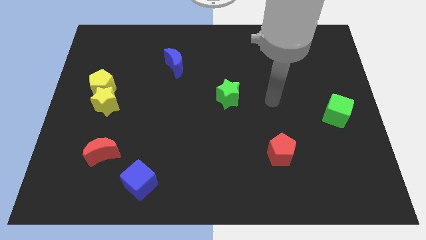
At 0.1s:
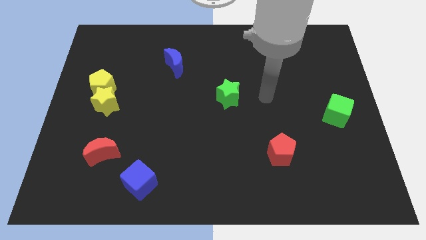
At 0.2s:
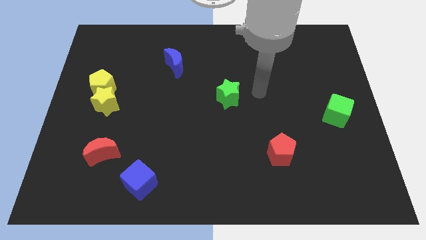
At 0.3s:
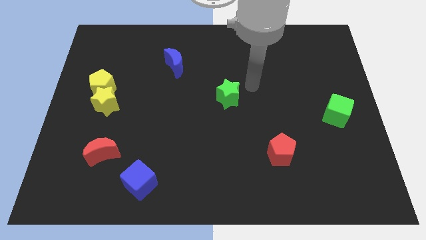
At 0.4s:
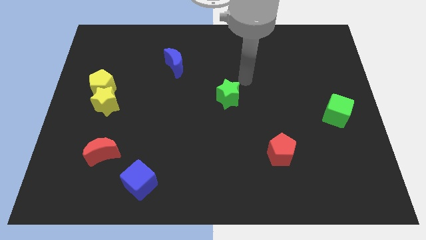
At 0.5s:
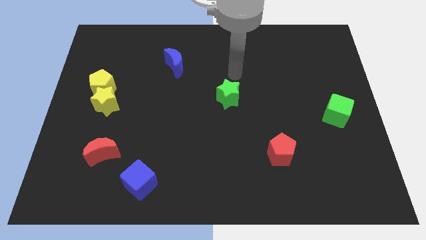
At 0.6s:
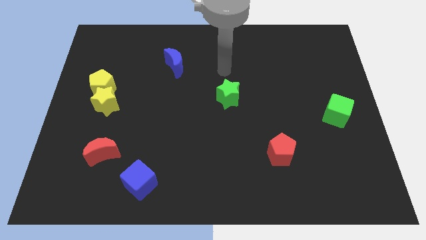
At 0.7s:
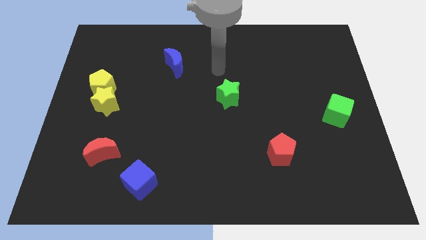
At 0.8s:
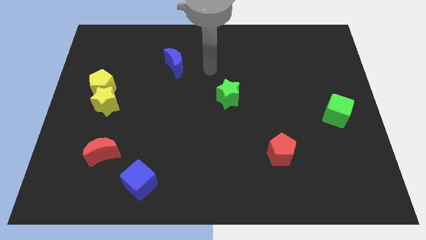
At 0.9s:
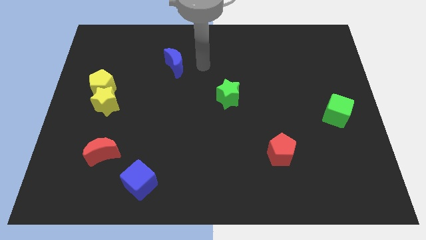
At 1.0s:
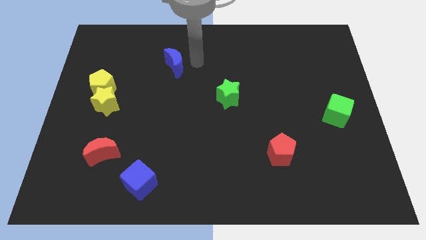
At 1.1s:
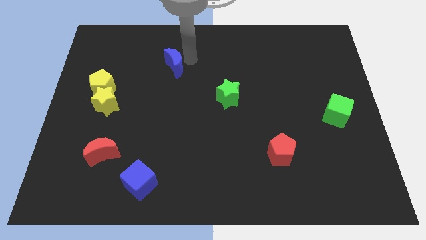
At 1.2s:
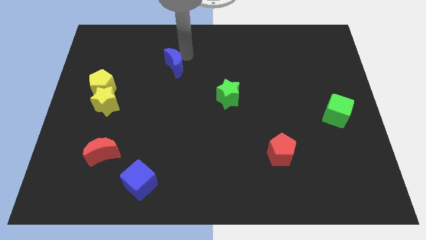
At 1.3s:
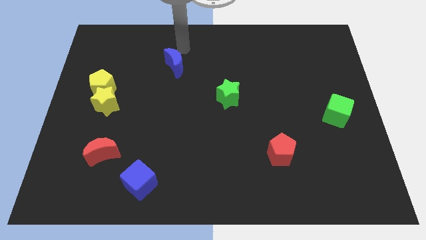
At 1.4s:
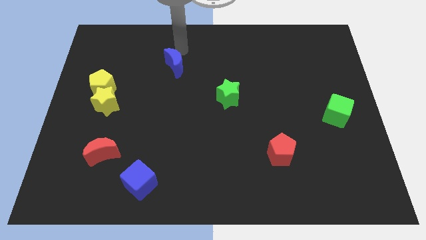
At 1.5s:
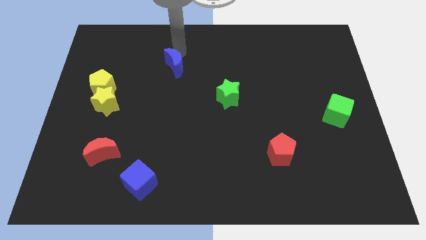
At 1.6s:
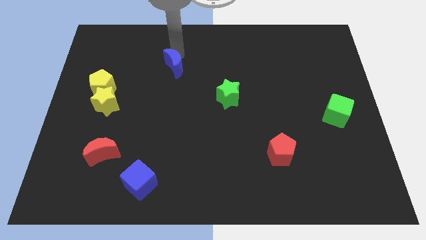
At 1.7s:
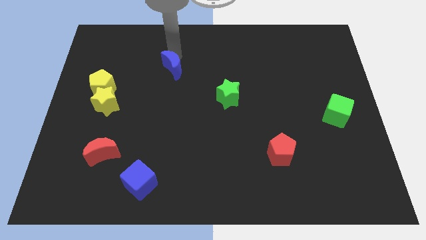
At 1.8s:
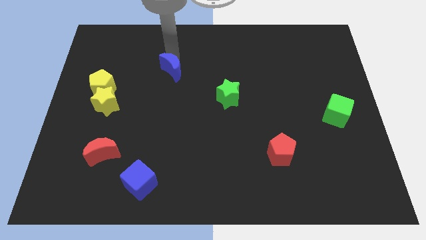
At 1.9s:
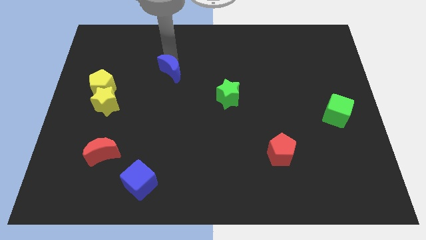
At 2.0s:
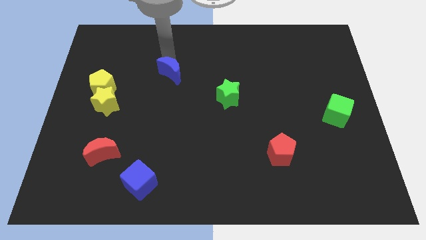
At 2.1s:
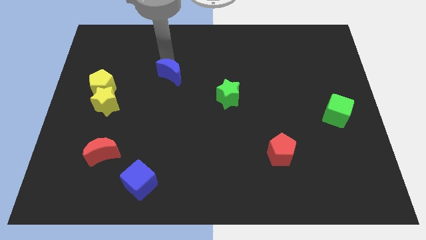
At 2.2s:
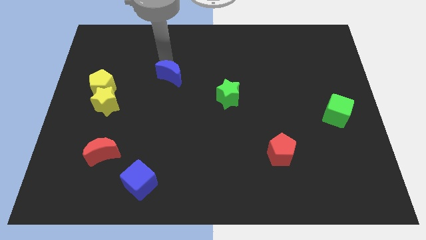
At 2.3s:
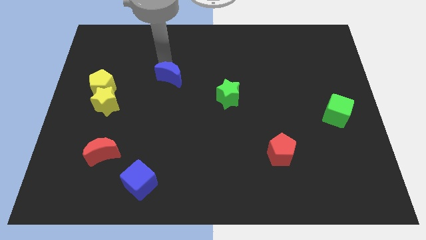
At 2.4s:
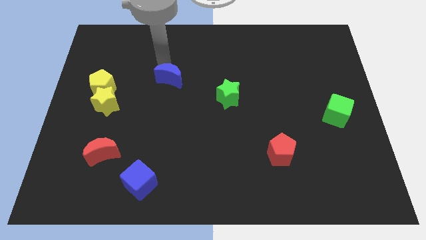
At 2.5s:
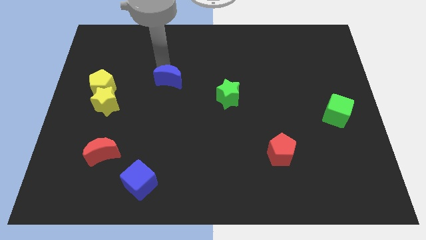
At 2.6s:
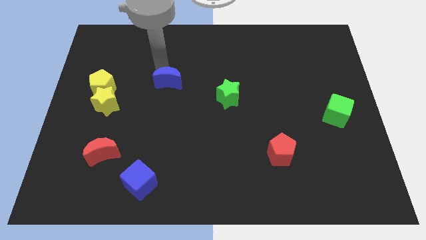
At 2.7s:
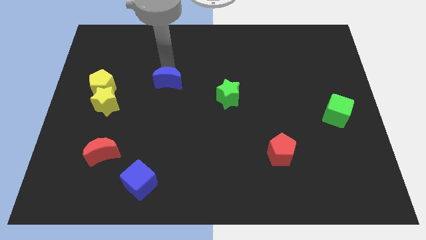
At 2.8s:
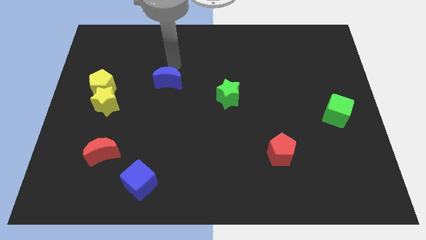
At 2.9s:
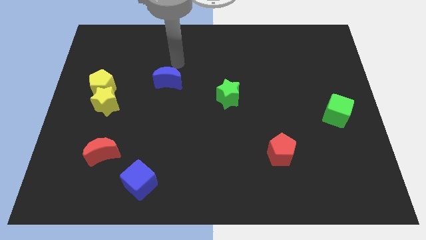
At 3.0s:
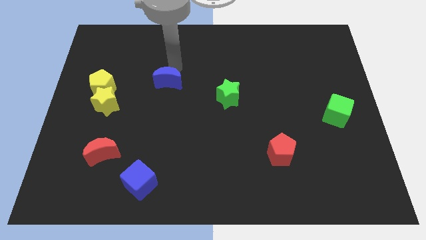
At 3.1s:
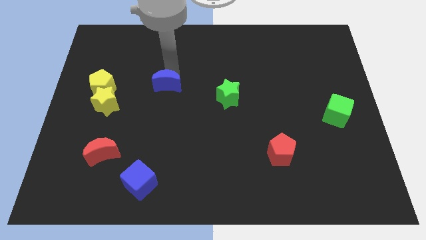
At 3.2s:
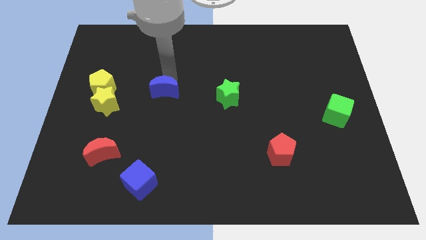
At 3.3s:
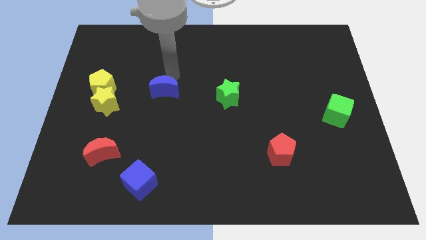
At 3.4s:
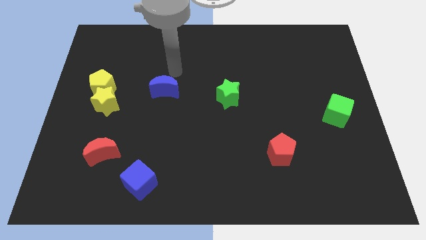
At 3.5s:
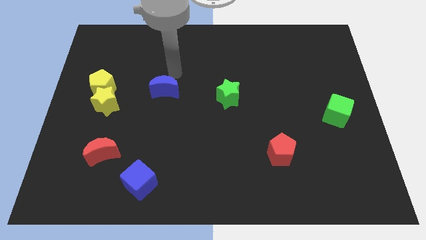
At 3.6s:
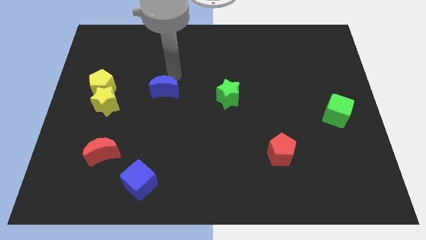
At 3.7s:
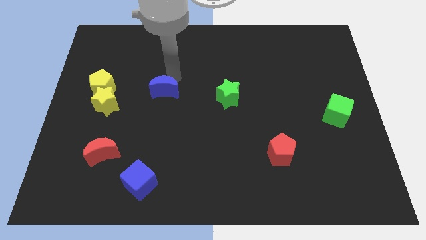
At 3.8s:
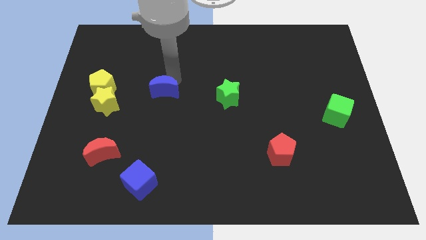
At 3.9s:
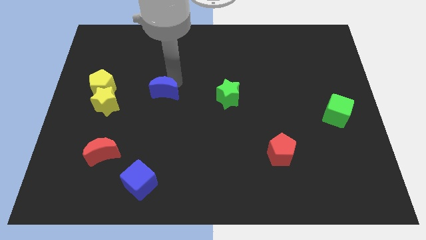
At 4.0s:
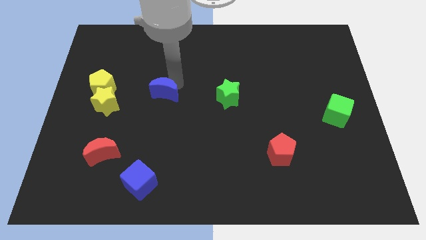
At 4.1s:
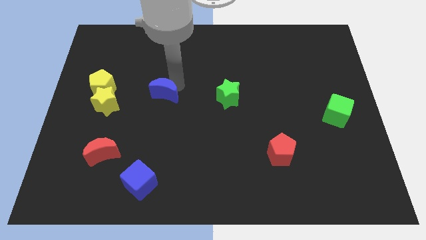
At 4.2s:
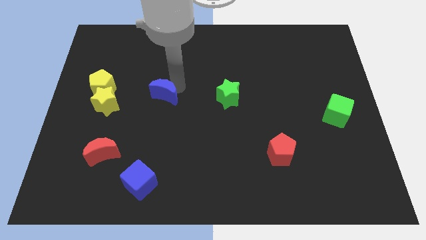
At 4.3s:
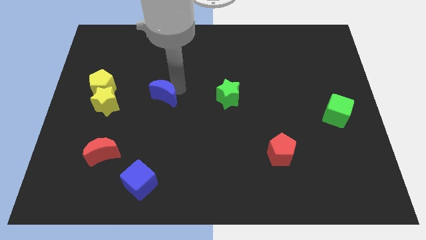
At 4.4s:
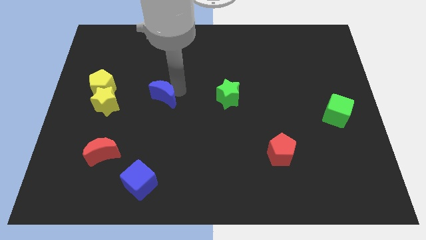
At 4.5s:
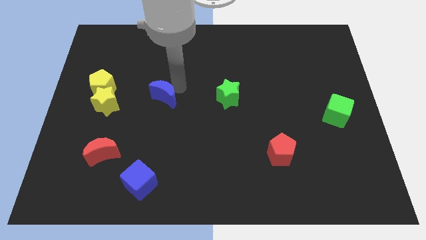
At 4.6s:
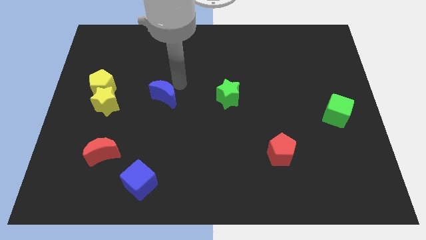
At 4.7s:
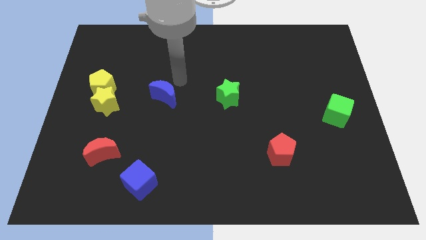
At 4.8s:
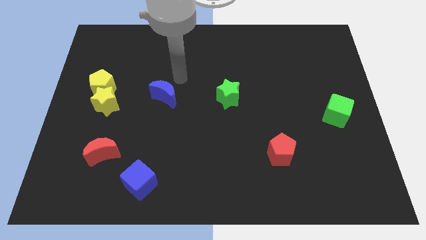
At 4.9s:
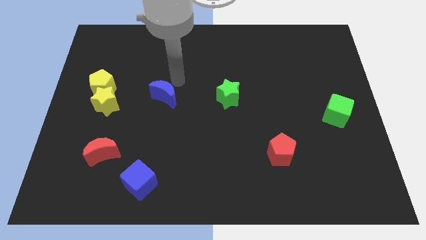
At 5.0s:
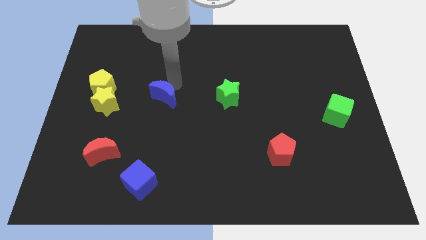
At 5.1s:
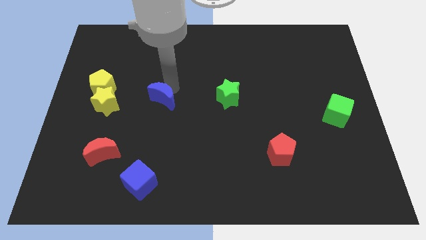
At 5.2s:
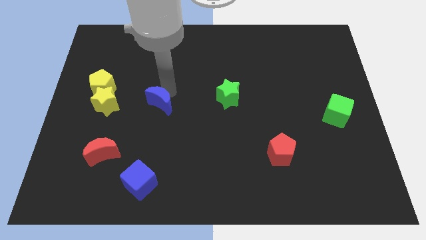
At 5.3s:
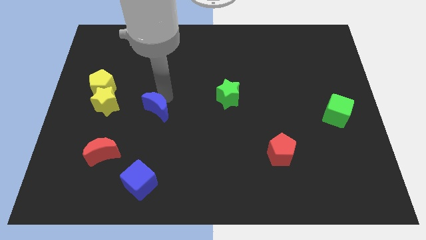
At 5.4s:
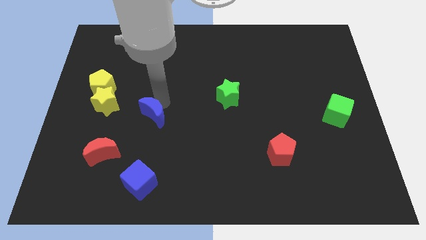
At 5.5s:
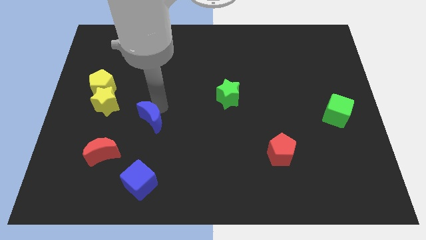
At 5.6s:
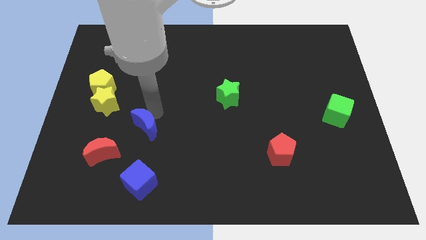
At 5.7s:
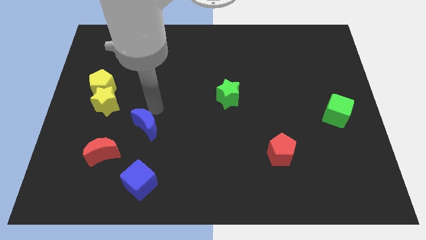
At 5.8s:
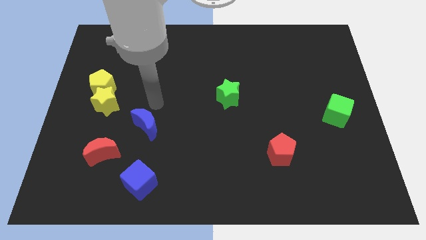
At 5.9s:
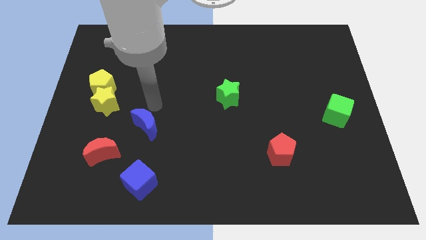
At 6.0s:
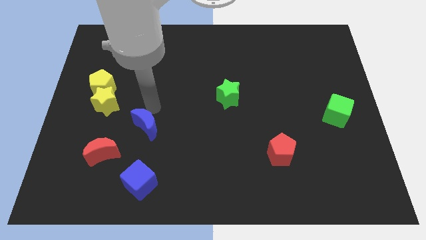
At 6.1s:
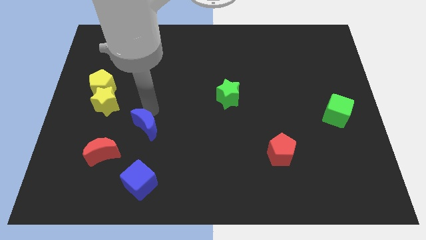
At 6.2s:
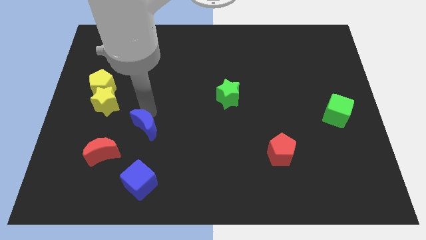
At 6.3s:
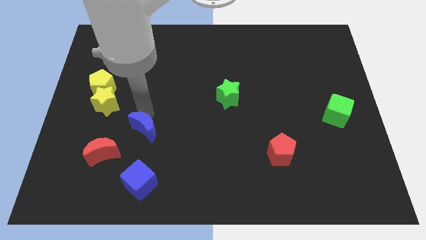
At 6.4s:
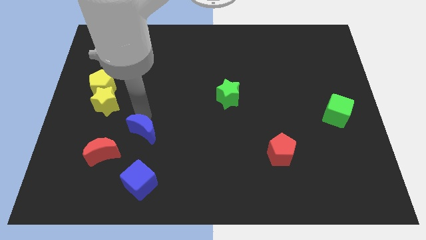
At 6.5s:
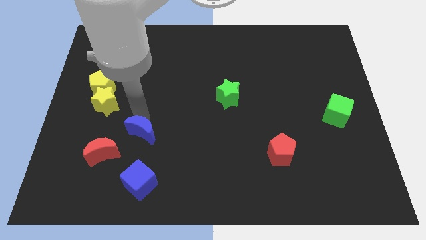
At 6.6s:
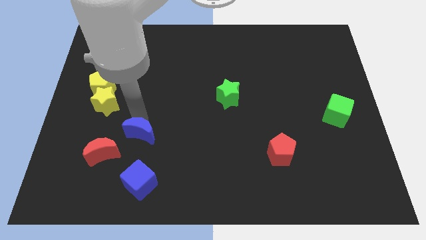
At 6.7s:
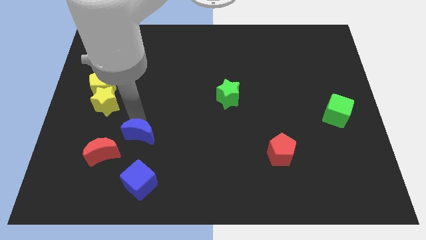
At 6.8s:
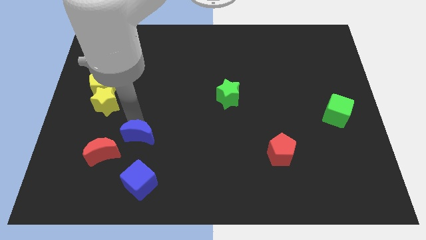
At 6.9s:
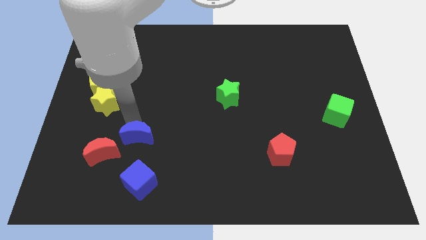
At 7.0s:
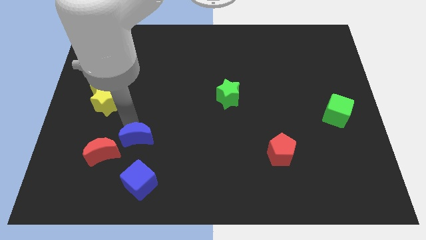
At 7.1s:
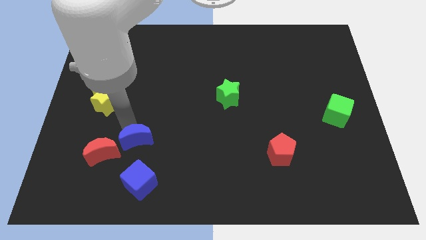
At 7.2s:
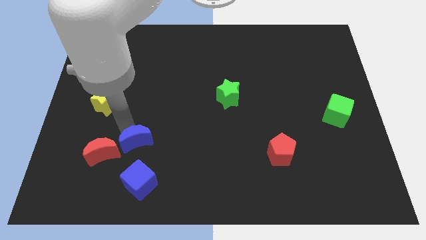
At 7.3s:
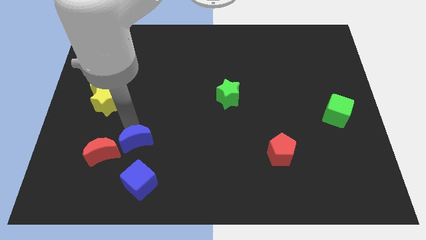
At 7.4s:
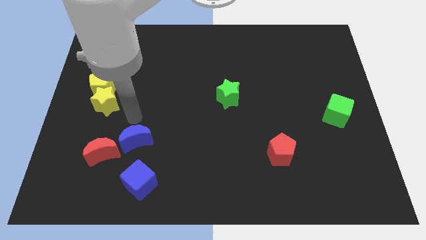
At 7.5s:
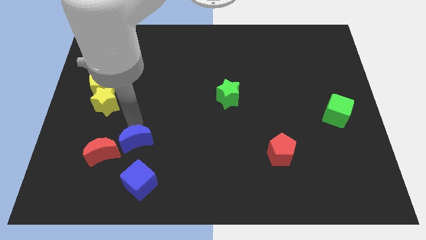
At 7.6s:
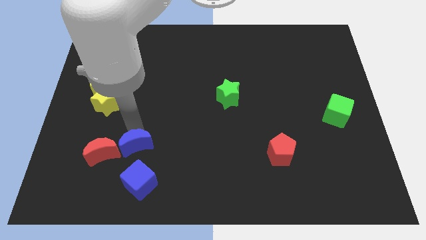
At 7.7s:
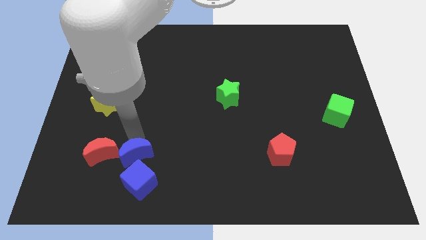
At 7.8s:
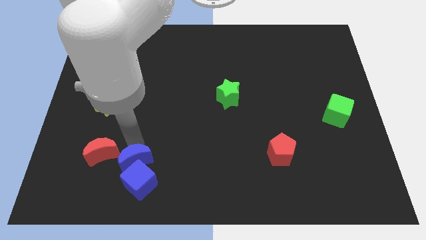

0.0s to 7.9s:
slide the blue moon towards the blue cube
